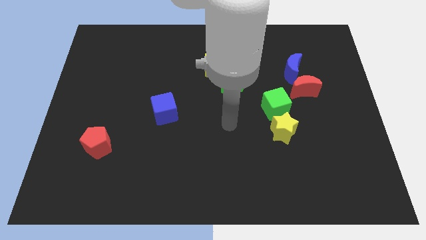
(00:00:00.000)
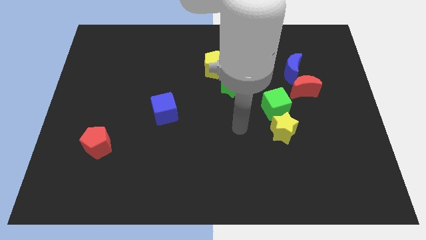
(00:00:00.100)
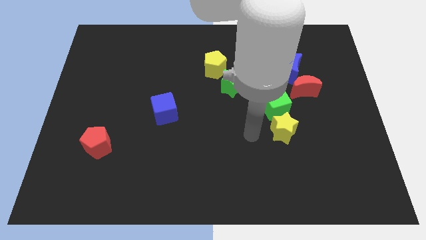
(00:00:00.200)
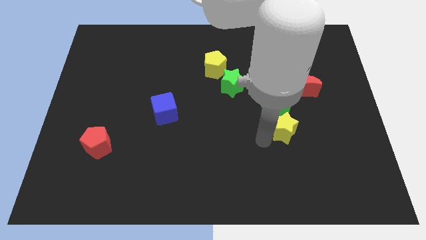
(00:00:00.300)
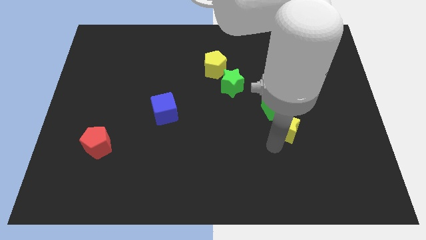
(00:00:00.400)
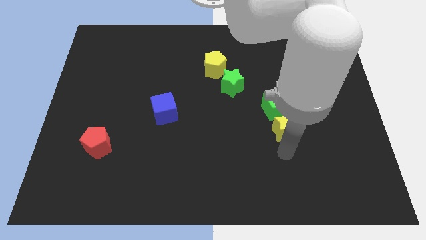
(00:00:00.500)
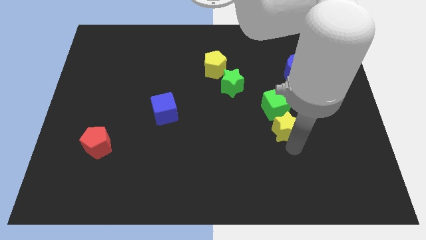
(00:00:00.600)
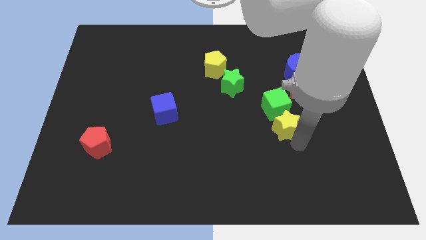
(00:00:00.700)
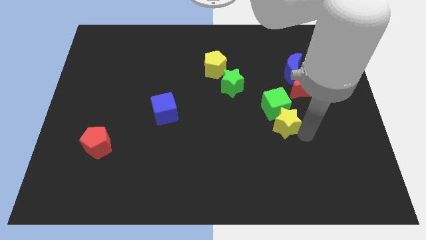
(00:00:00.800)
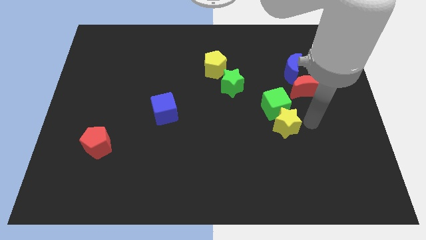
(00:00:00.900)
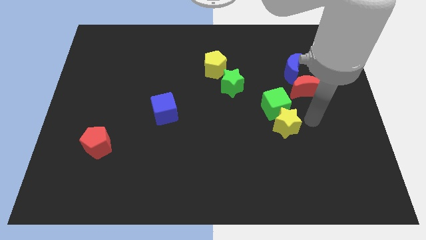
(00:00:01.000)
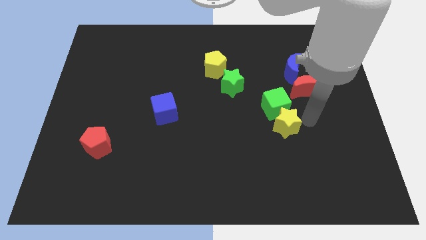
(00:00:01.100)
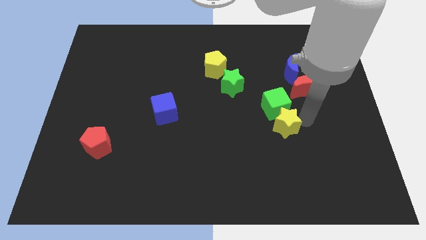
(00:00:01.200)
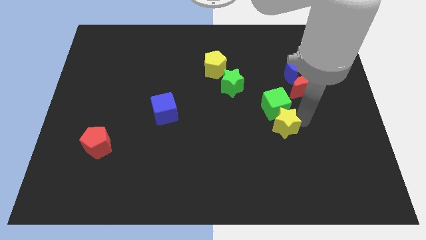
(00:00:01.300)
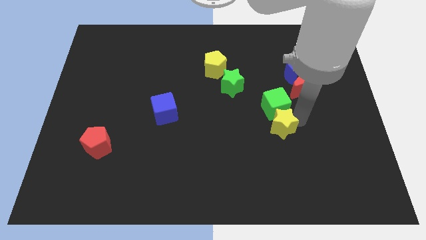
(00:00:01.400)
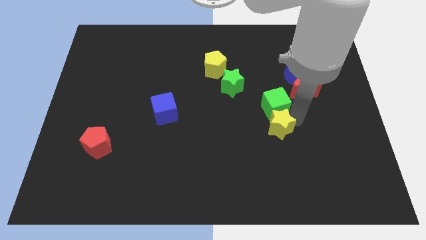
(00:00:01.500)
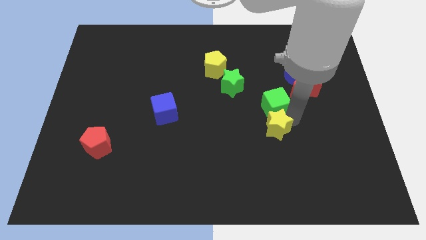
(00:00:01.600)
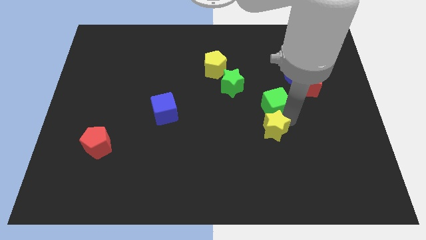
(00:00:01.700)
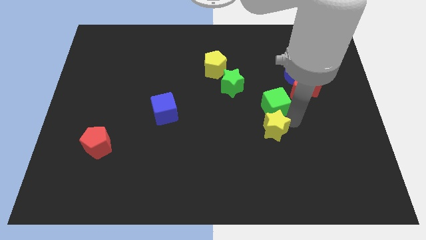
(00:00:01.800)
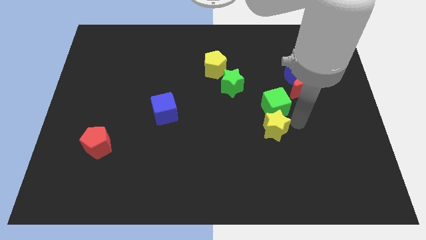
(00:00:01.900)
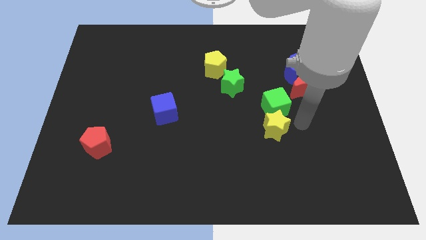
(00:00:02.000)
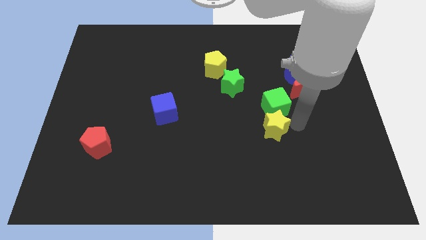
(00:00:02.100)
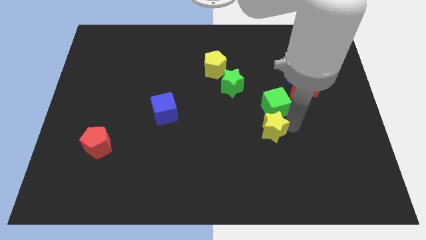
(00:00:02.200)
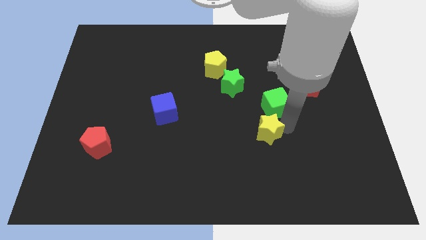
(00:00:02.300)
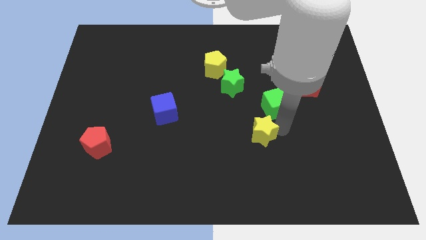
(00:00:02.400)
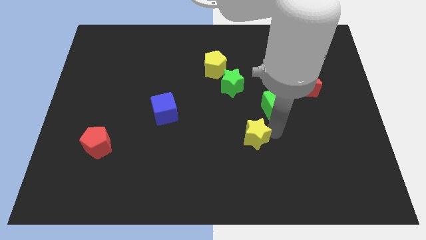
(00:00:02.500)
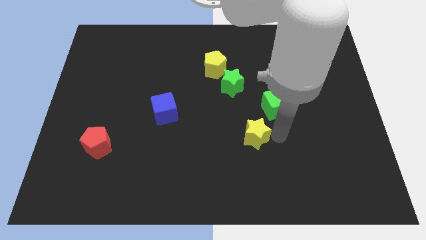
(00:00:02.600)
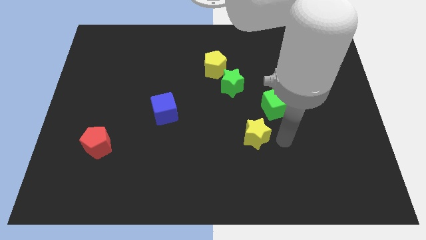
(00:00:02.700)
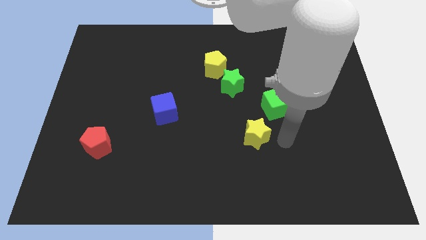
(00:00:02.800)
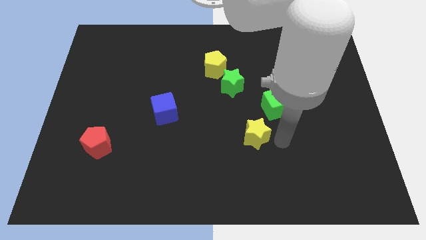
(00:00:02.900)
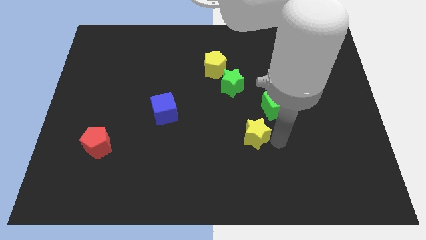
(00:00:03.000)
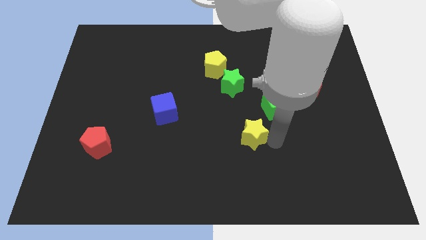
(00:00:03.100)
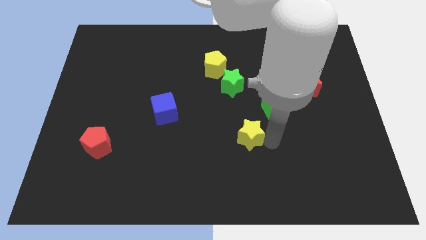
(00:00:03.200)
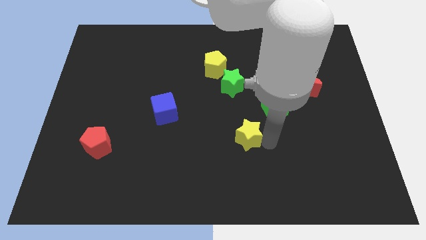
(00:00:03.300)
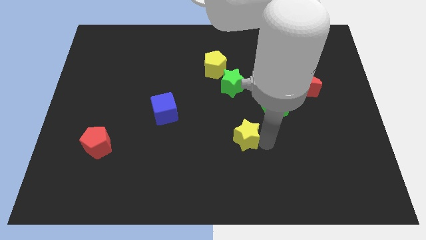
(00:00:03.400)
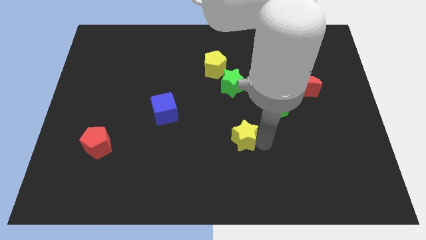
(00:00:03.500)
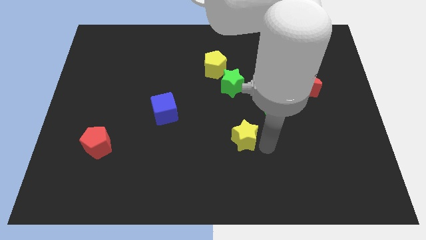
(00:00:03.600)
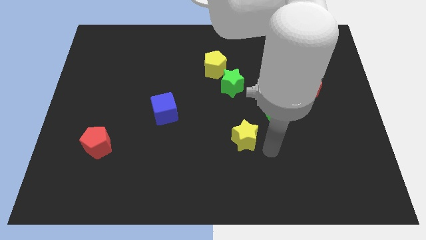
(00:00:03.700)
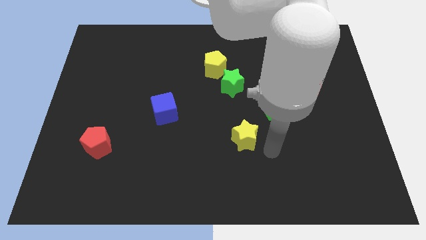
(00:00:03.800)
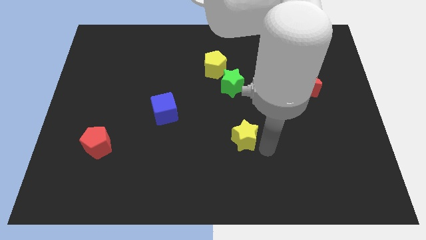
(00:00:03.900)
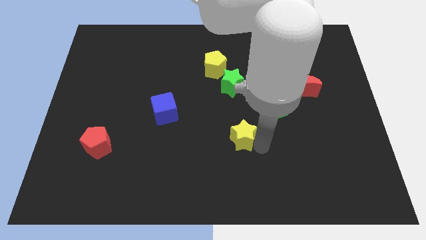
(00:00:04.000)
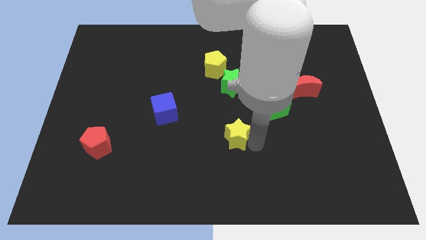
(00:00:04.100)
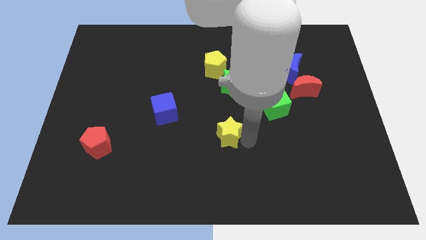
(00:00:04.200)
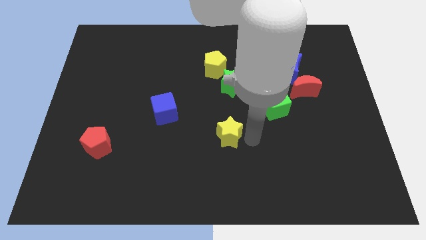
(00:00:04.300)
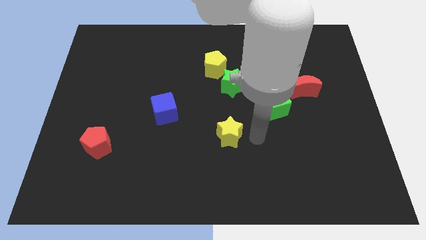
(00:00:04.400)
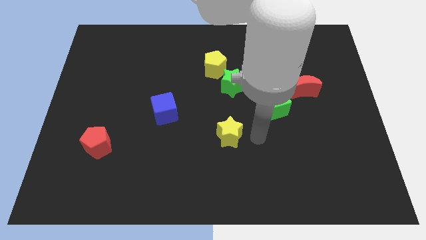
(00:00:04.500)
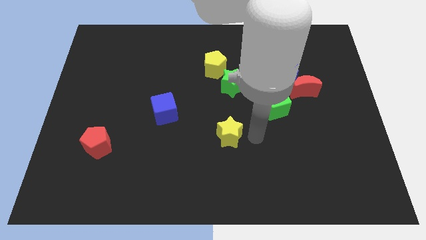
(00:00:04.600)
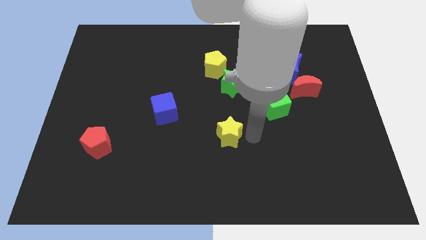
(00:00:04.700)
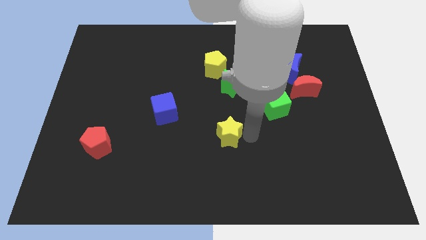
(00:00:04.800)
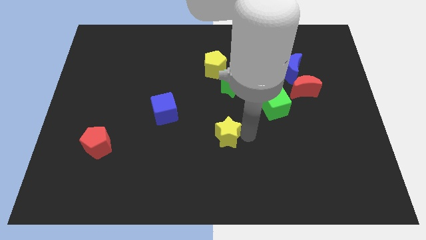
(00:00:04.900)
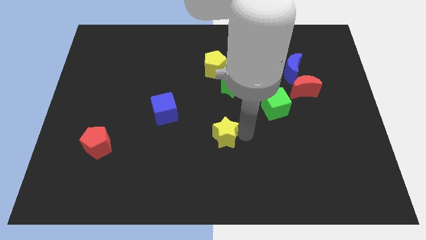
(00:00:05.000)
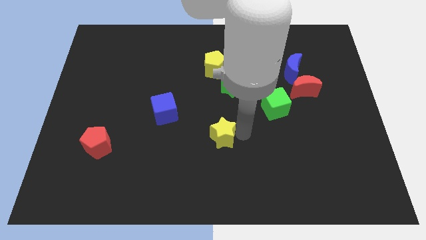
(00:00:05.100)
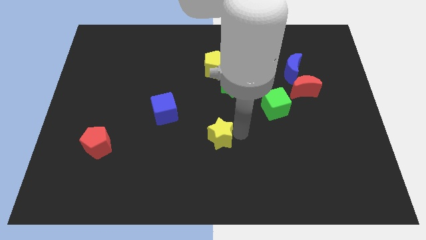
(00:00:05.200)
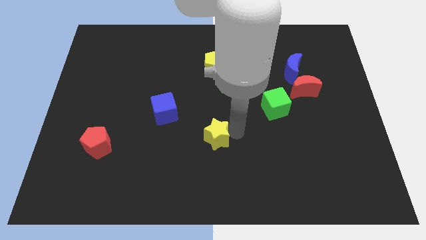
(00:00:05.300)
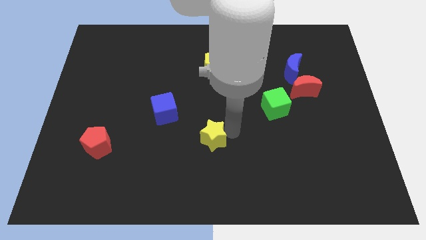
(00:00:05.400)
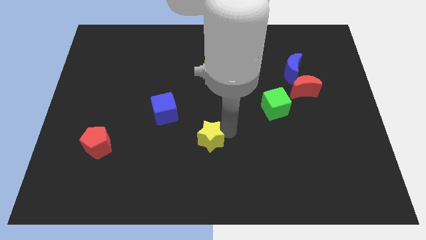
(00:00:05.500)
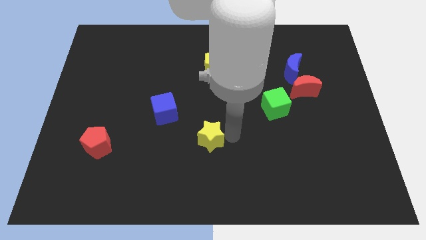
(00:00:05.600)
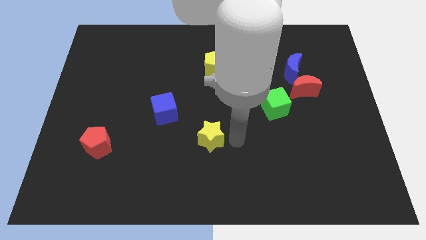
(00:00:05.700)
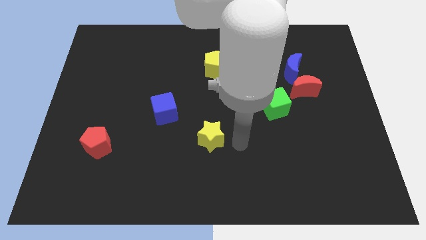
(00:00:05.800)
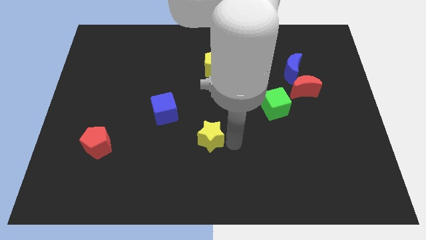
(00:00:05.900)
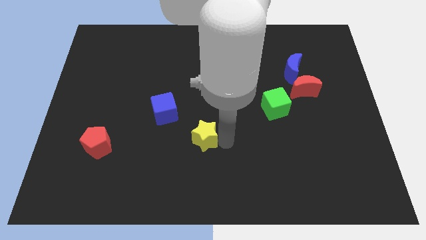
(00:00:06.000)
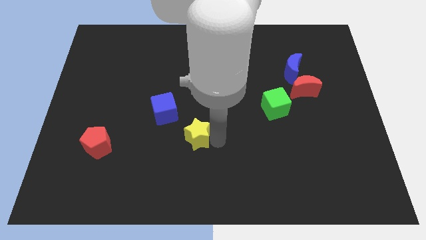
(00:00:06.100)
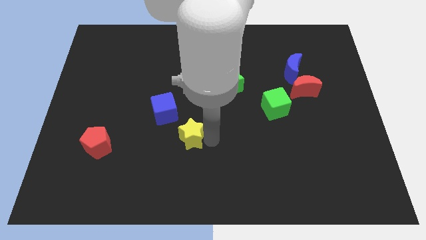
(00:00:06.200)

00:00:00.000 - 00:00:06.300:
push the yellow star to the left

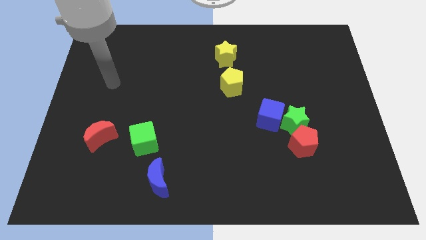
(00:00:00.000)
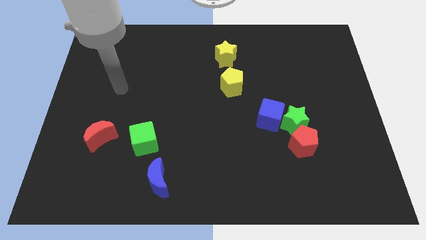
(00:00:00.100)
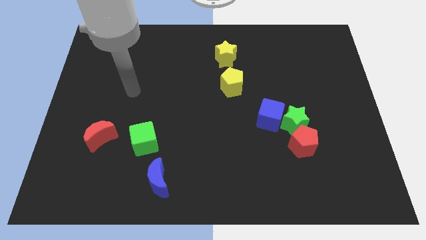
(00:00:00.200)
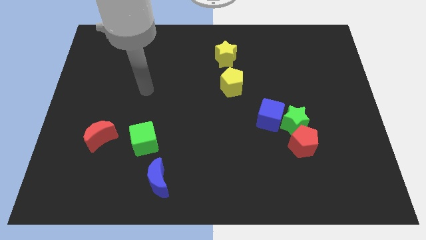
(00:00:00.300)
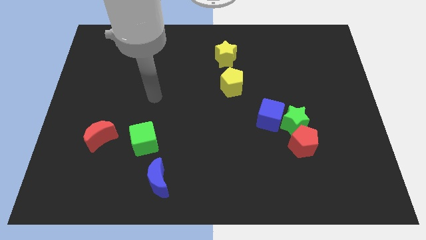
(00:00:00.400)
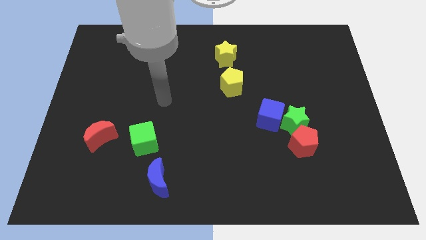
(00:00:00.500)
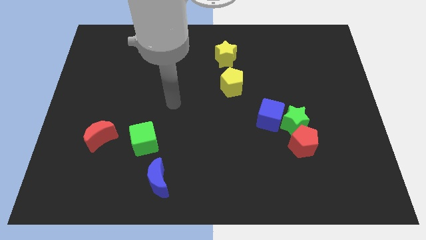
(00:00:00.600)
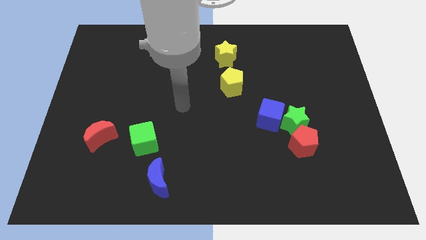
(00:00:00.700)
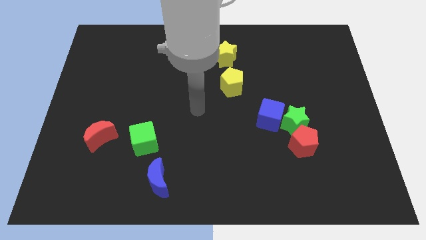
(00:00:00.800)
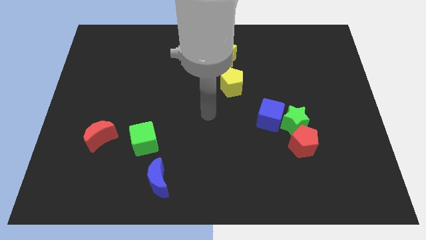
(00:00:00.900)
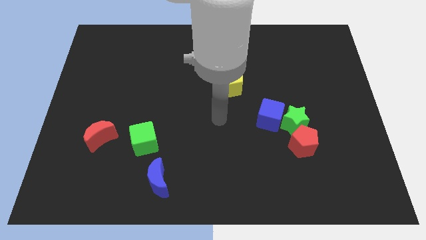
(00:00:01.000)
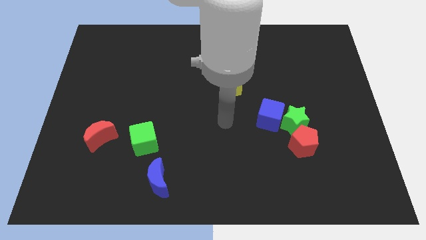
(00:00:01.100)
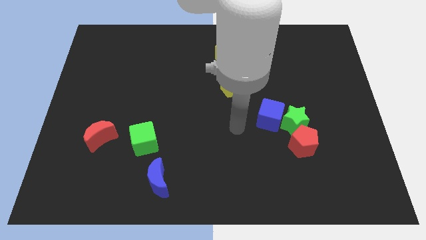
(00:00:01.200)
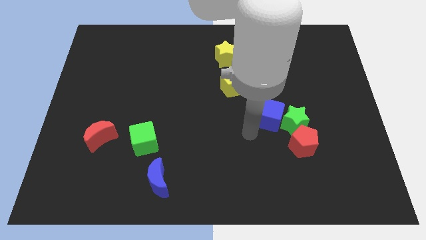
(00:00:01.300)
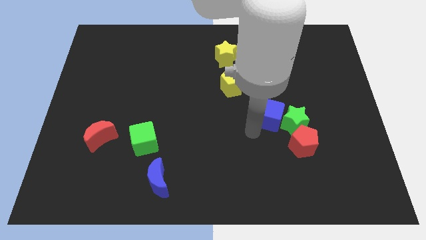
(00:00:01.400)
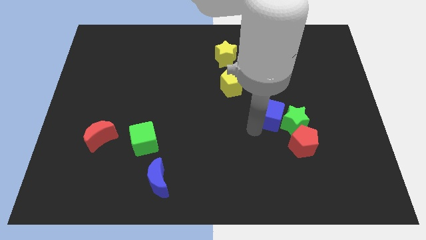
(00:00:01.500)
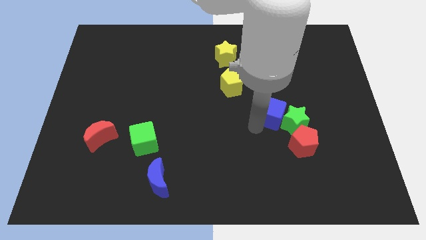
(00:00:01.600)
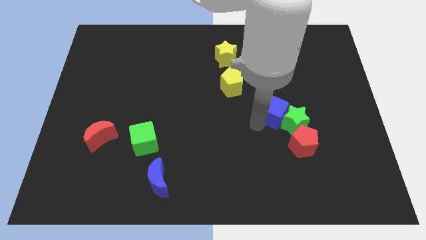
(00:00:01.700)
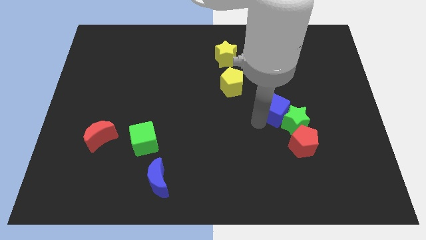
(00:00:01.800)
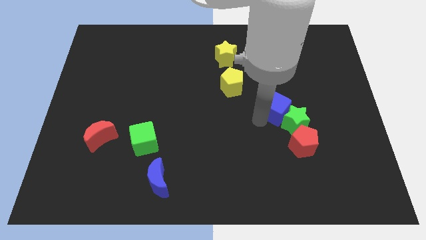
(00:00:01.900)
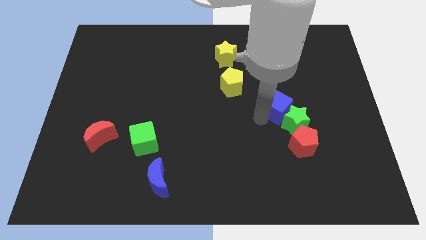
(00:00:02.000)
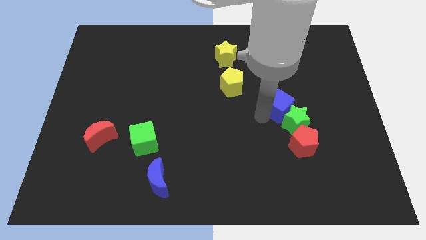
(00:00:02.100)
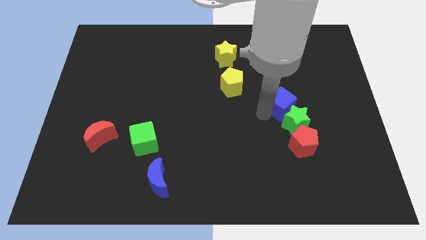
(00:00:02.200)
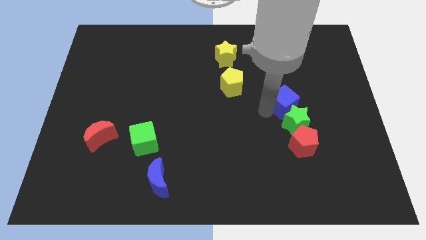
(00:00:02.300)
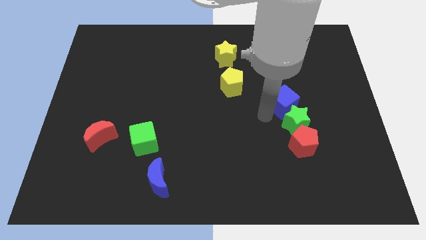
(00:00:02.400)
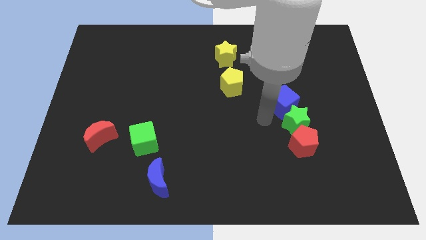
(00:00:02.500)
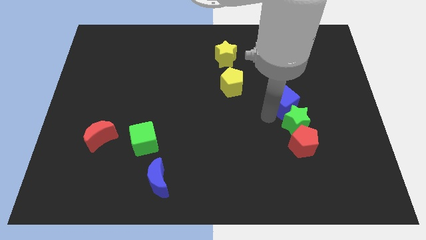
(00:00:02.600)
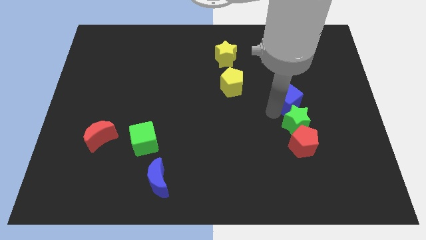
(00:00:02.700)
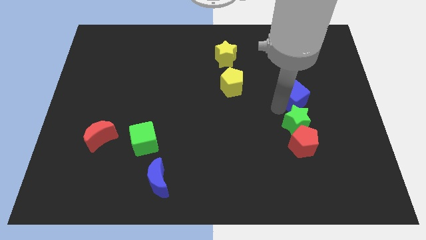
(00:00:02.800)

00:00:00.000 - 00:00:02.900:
slightly push the blue cube upwards and right diagonally
